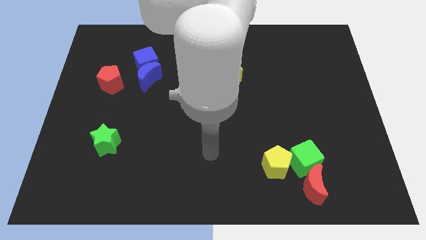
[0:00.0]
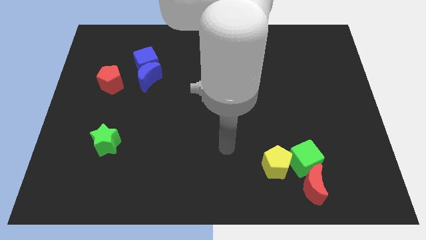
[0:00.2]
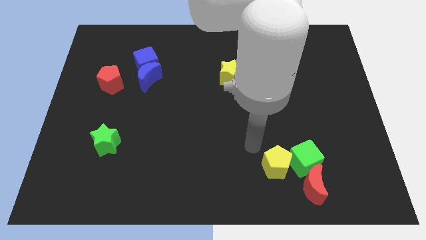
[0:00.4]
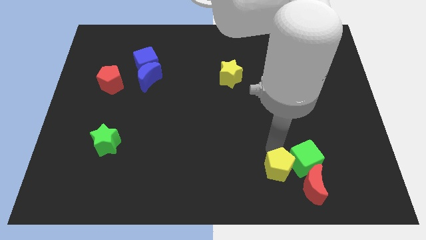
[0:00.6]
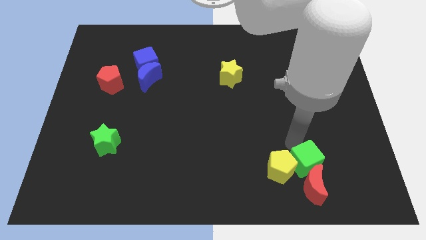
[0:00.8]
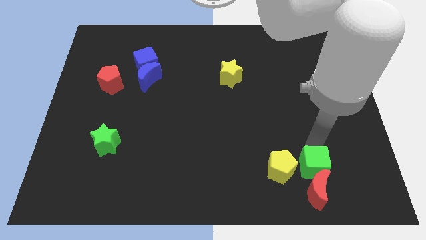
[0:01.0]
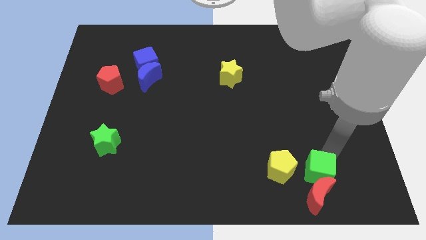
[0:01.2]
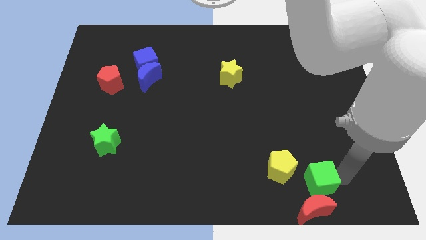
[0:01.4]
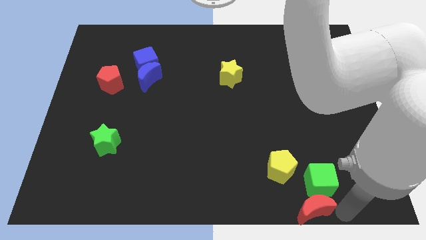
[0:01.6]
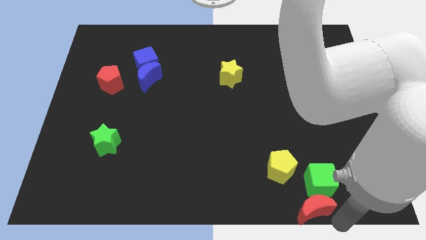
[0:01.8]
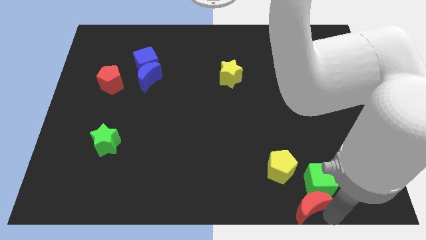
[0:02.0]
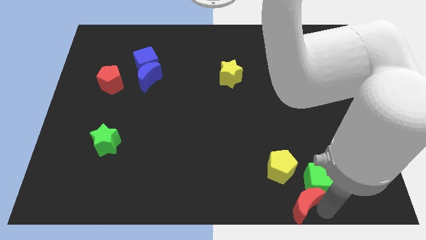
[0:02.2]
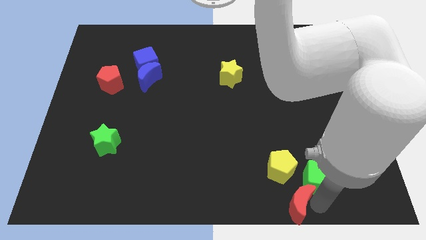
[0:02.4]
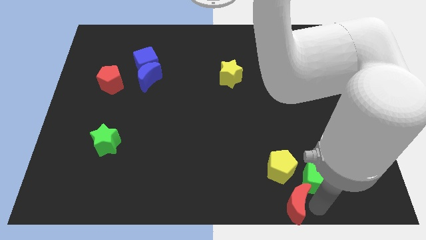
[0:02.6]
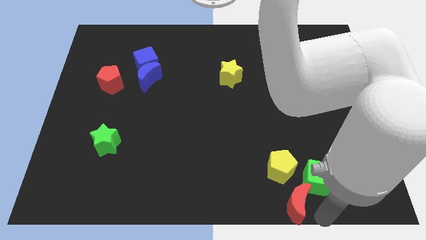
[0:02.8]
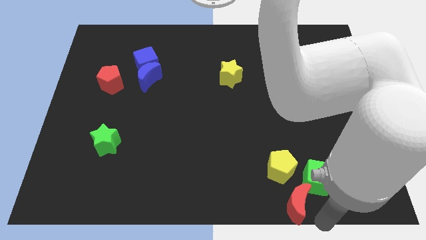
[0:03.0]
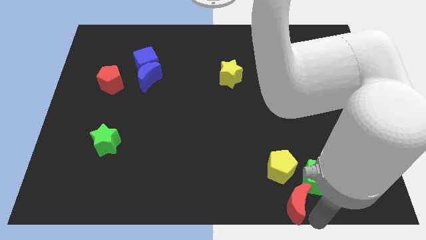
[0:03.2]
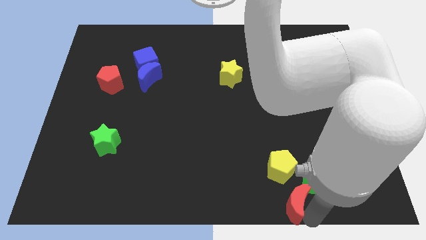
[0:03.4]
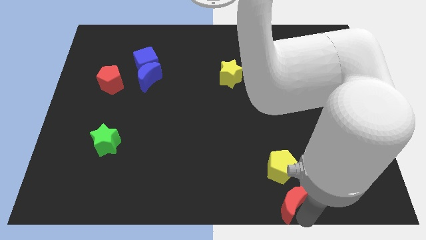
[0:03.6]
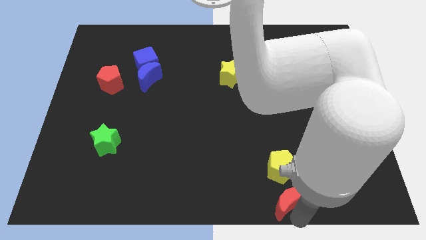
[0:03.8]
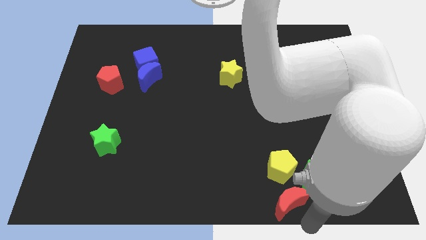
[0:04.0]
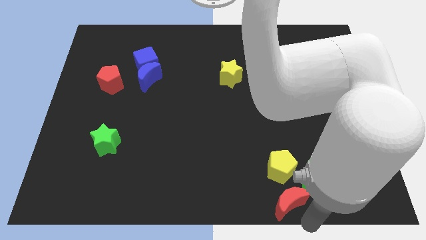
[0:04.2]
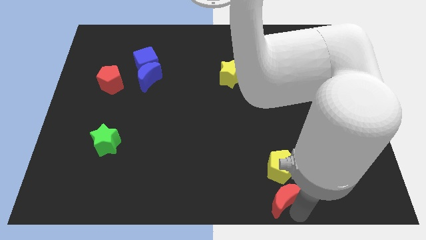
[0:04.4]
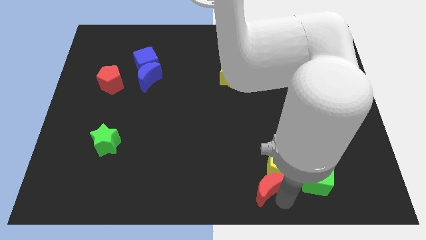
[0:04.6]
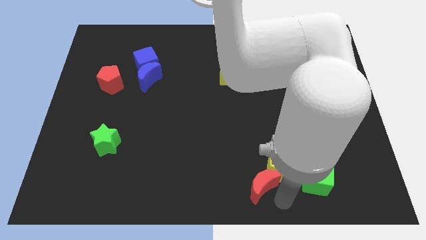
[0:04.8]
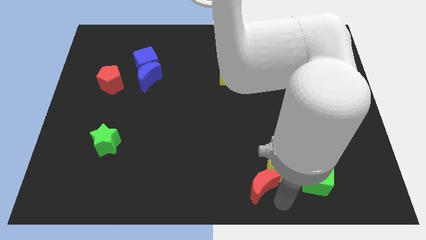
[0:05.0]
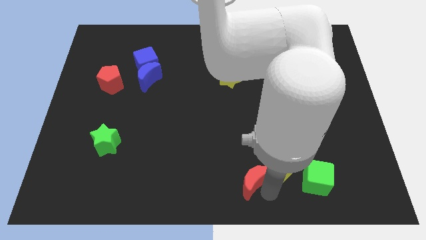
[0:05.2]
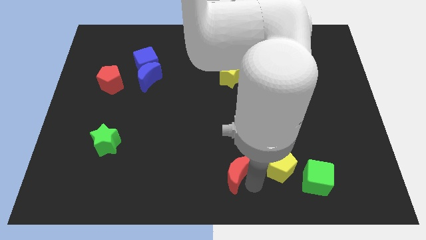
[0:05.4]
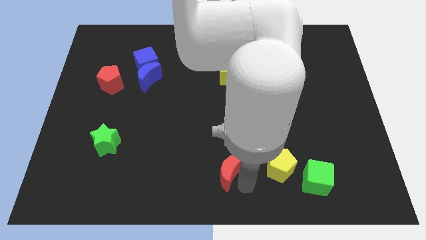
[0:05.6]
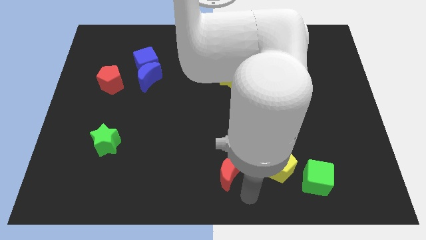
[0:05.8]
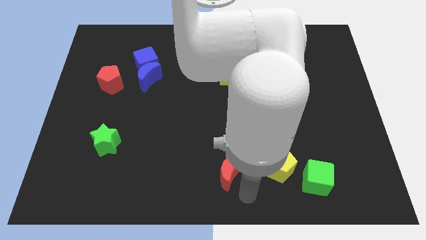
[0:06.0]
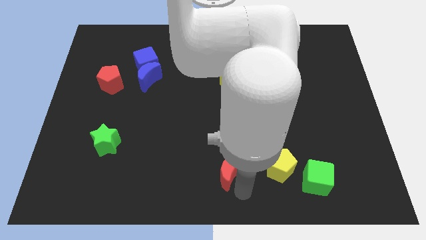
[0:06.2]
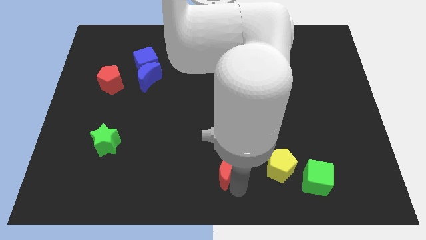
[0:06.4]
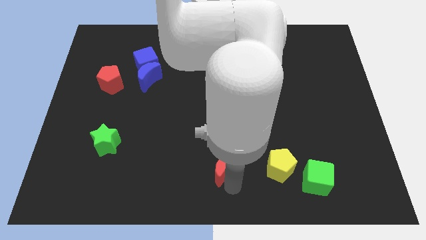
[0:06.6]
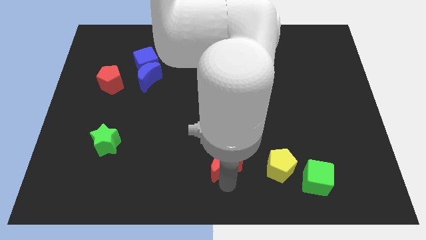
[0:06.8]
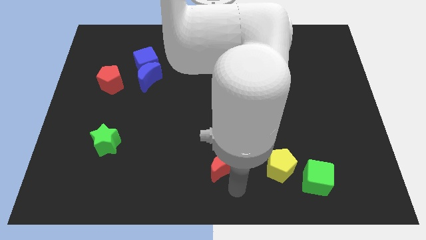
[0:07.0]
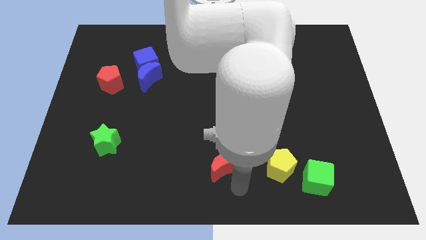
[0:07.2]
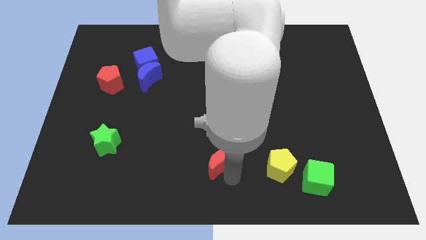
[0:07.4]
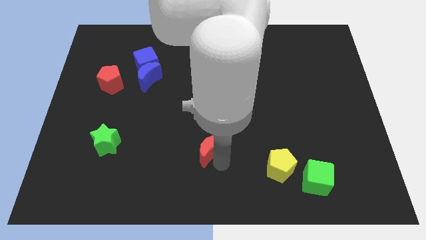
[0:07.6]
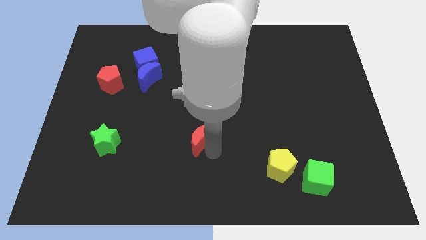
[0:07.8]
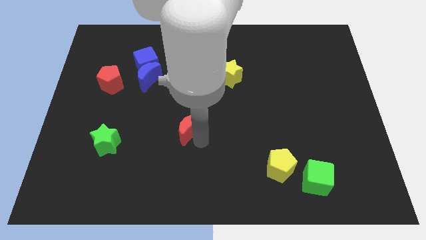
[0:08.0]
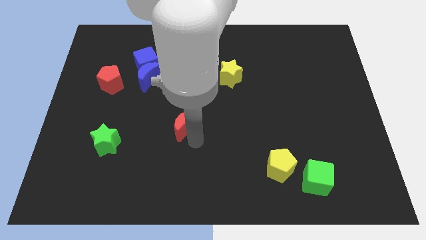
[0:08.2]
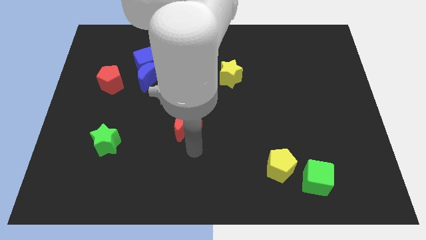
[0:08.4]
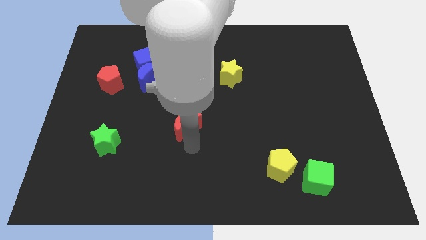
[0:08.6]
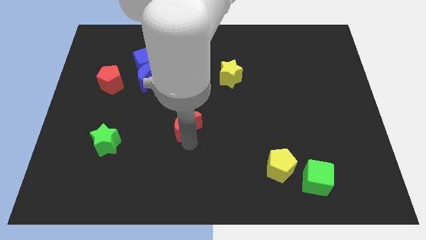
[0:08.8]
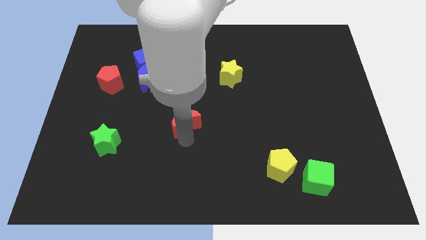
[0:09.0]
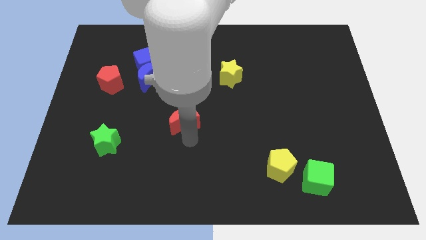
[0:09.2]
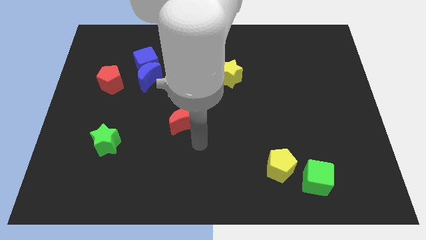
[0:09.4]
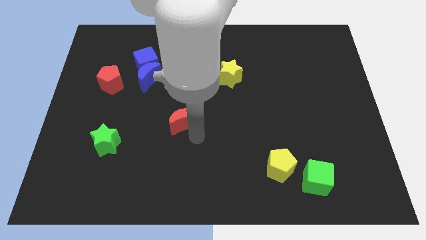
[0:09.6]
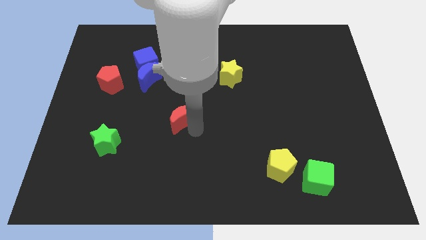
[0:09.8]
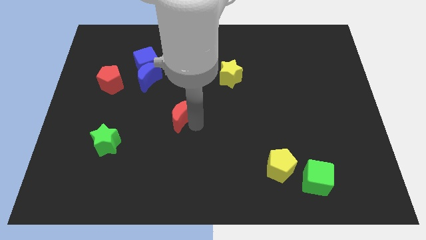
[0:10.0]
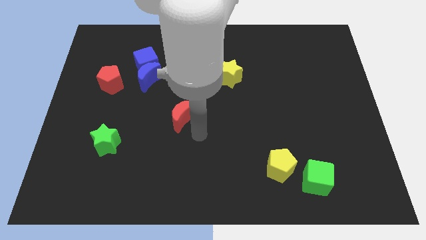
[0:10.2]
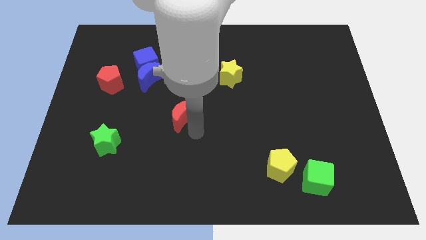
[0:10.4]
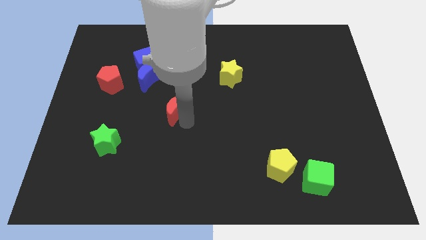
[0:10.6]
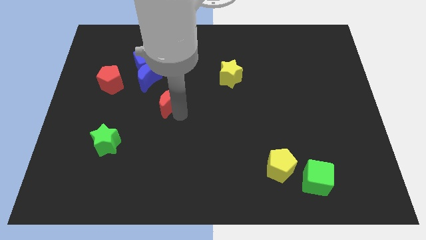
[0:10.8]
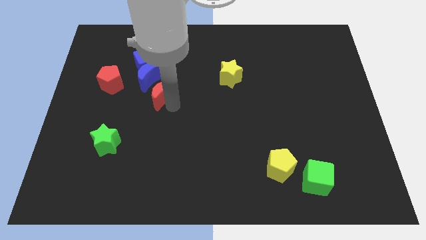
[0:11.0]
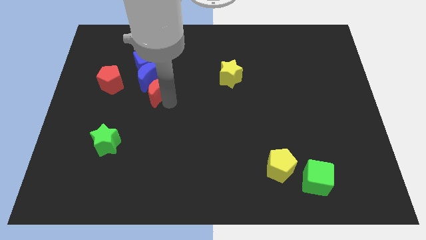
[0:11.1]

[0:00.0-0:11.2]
put the red moon close to the blue moon

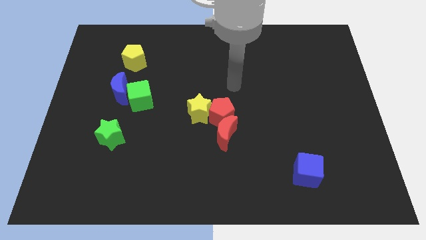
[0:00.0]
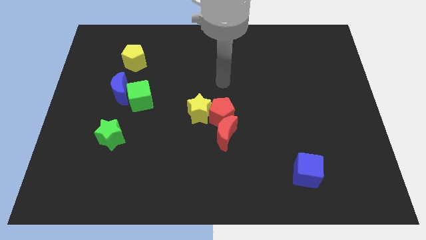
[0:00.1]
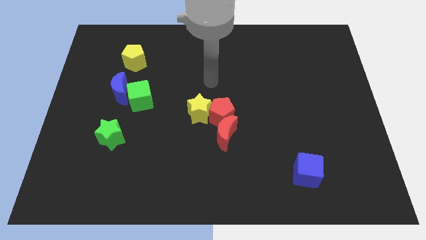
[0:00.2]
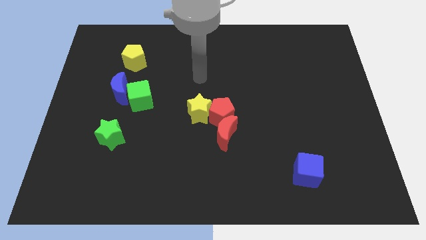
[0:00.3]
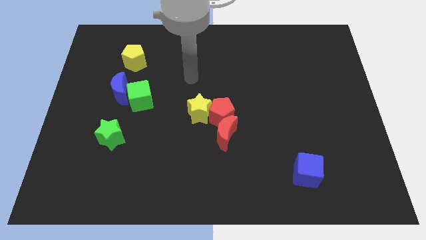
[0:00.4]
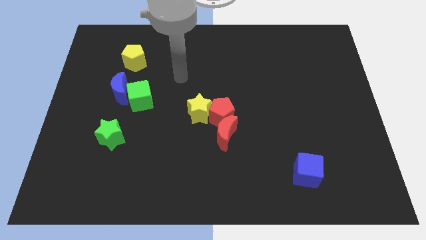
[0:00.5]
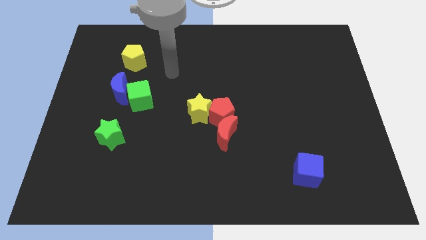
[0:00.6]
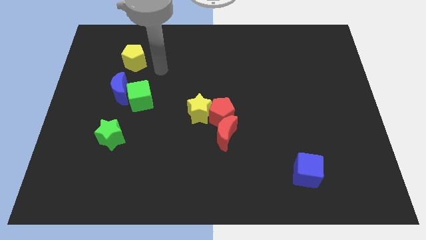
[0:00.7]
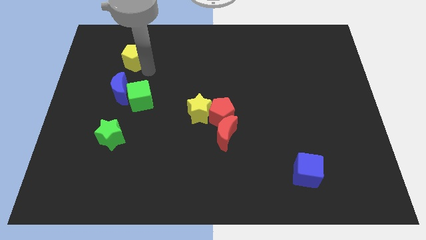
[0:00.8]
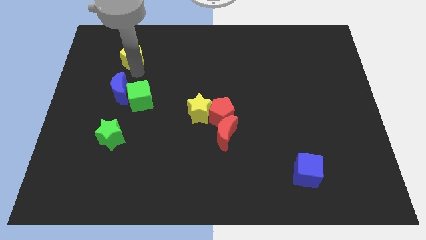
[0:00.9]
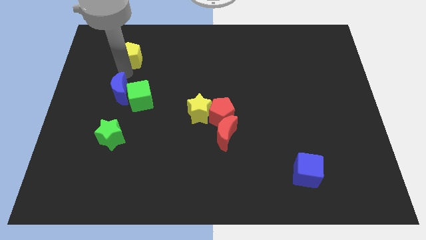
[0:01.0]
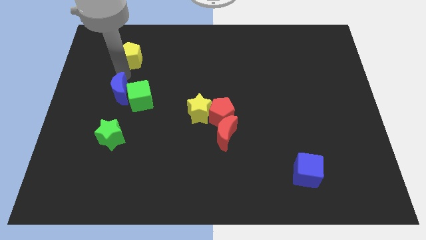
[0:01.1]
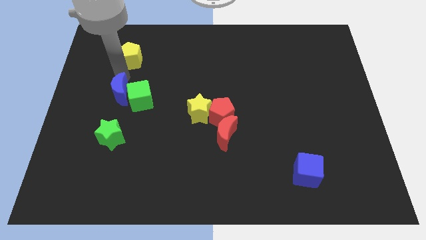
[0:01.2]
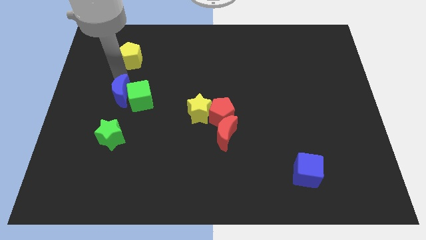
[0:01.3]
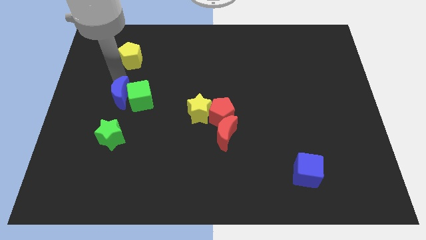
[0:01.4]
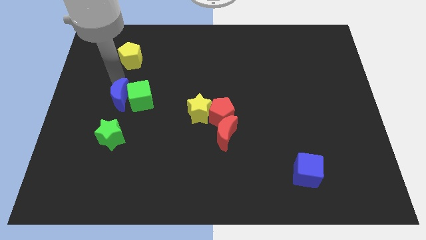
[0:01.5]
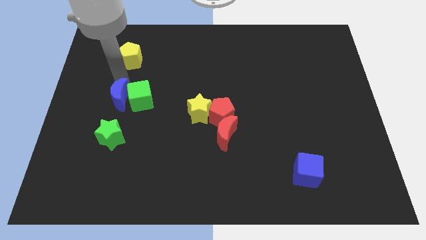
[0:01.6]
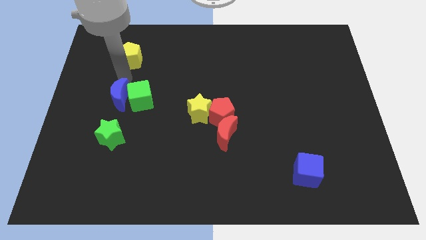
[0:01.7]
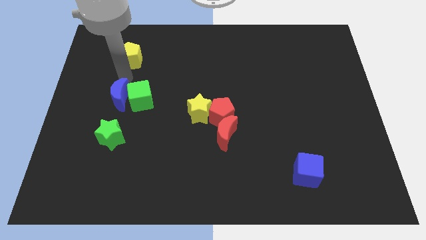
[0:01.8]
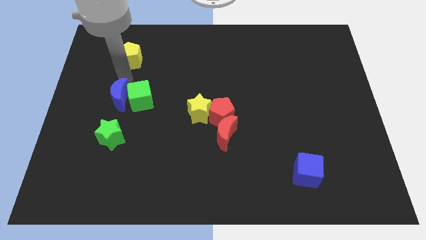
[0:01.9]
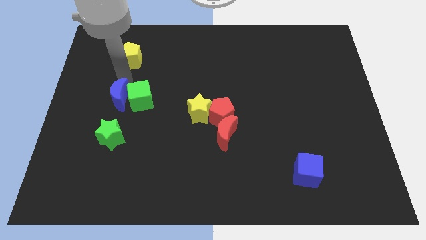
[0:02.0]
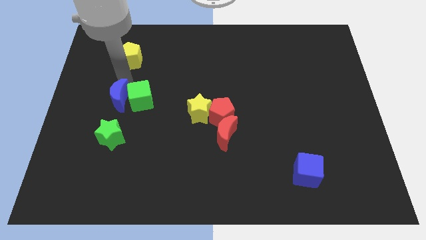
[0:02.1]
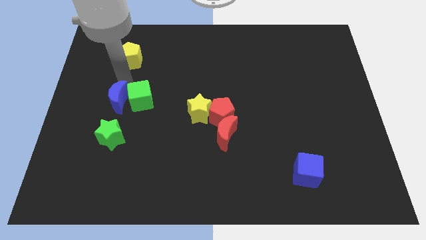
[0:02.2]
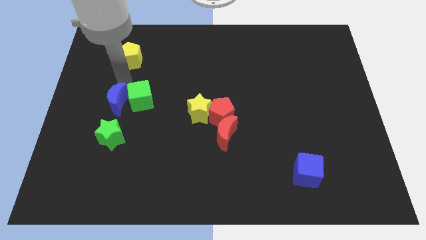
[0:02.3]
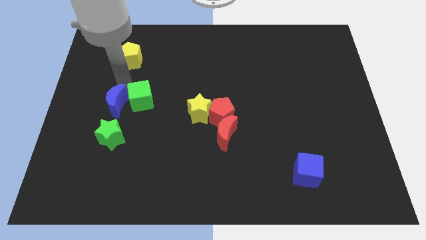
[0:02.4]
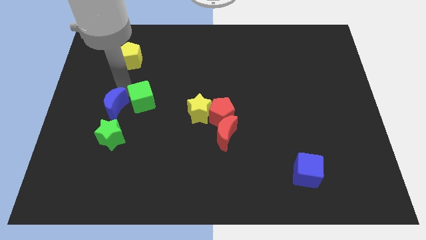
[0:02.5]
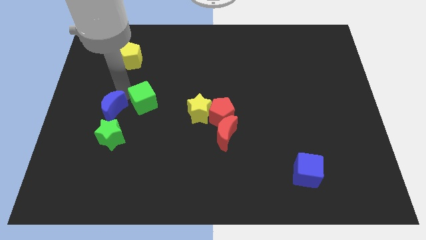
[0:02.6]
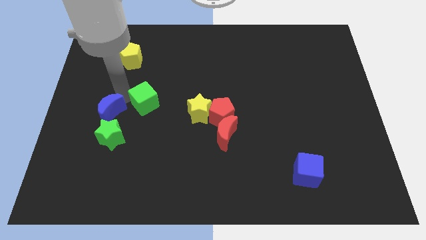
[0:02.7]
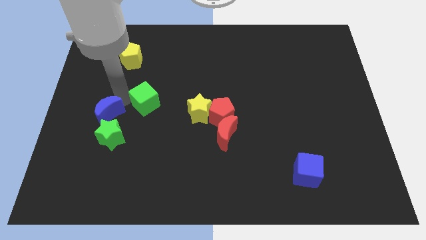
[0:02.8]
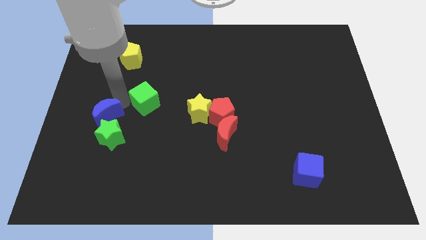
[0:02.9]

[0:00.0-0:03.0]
push the blue moon to the green star
